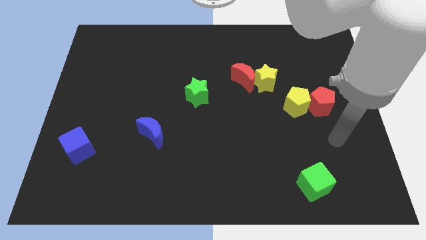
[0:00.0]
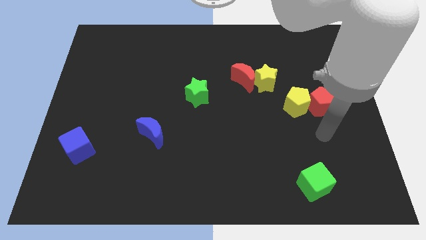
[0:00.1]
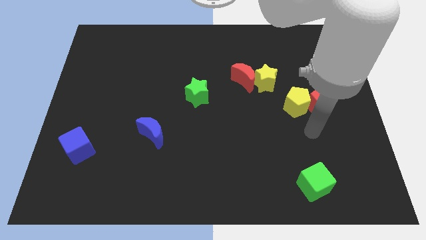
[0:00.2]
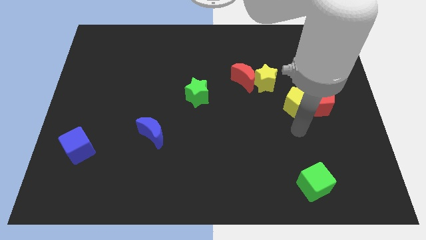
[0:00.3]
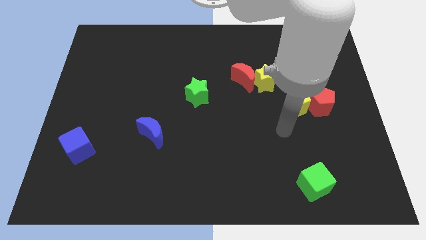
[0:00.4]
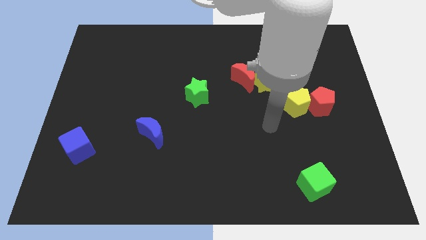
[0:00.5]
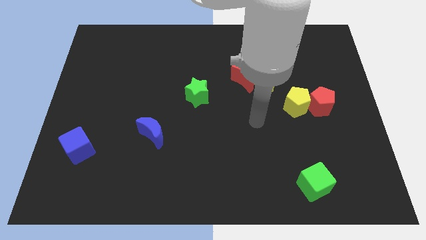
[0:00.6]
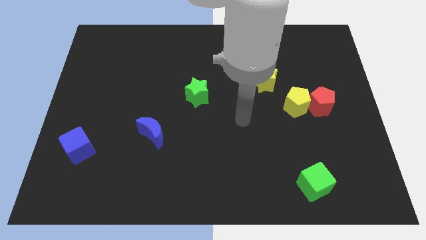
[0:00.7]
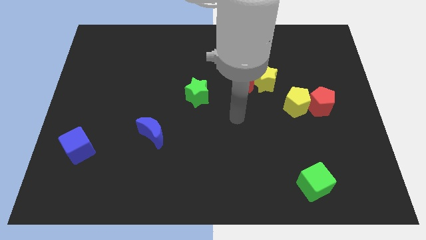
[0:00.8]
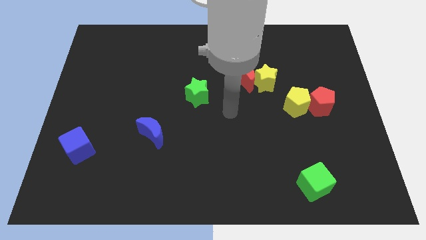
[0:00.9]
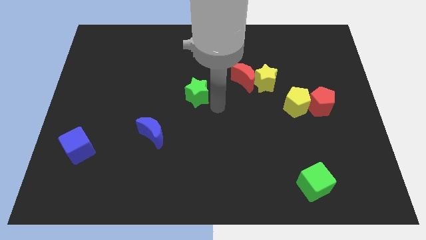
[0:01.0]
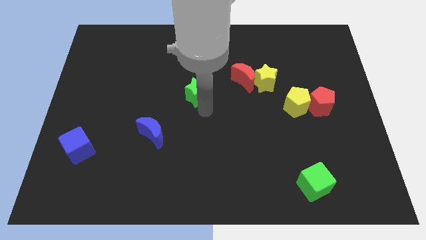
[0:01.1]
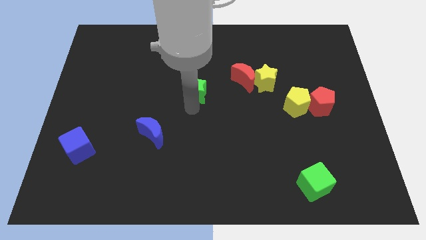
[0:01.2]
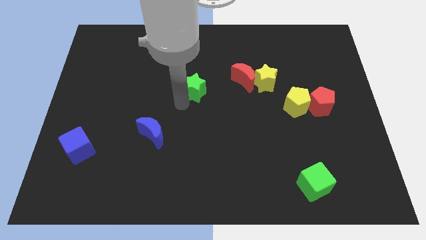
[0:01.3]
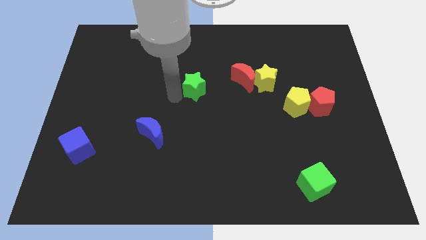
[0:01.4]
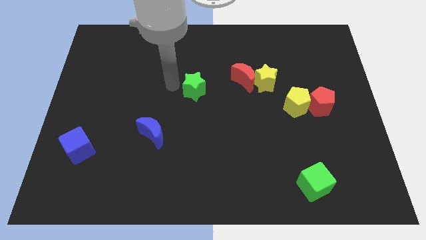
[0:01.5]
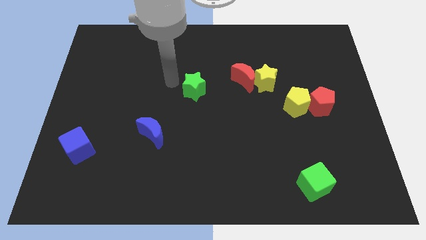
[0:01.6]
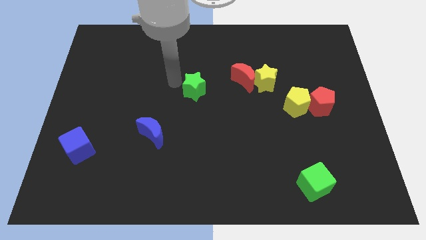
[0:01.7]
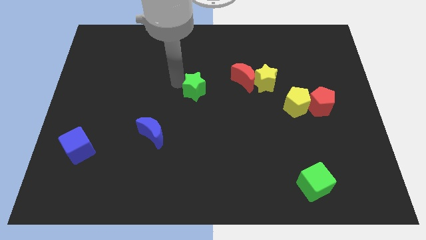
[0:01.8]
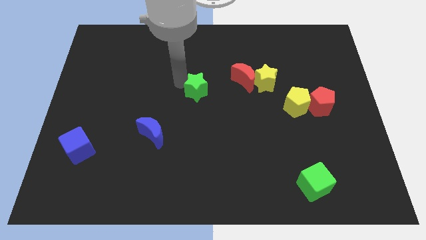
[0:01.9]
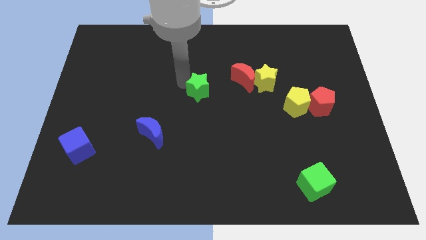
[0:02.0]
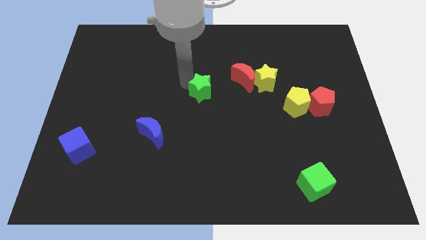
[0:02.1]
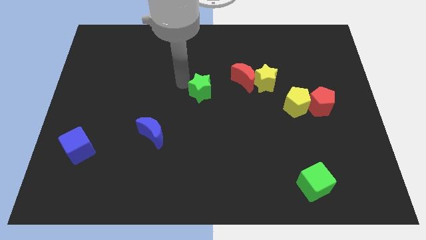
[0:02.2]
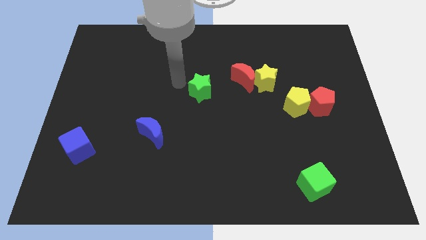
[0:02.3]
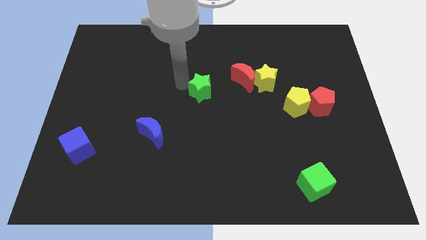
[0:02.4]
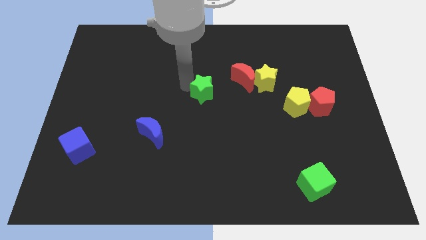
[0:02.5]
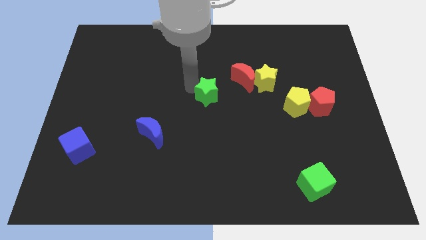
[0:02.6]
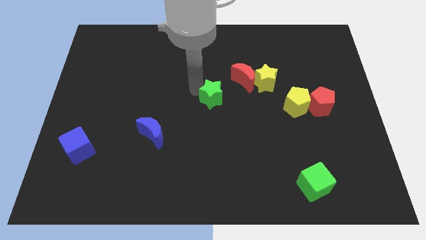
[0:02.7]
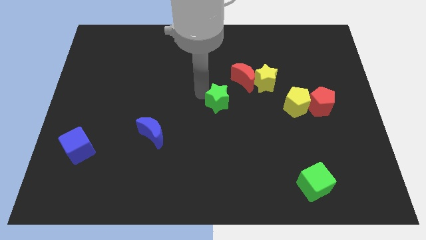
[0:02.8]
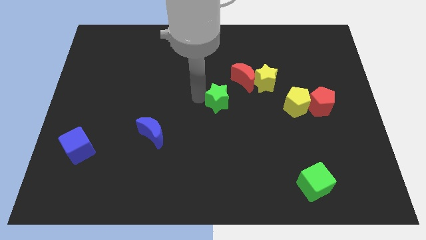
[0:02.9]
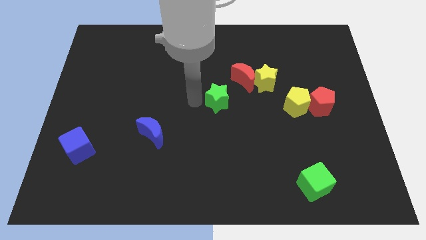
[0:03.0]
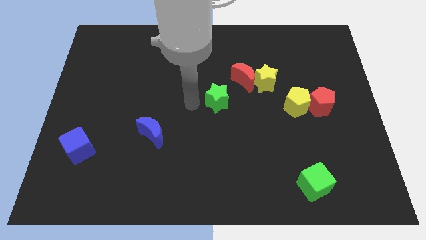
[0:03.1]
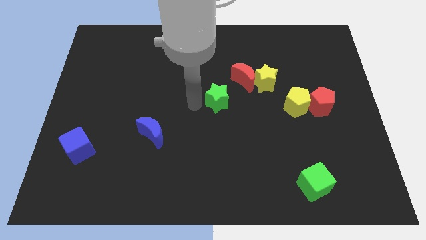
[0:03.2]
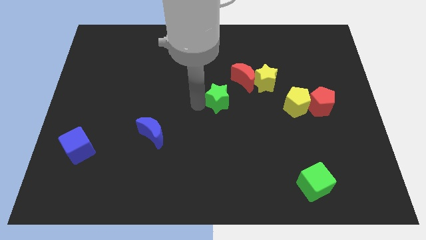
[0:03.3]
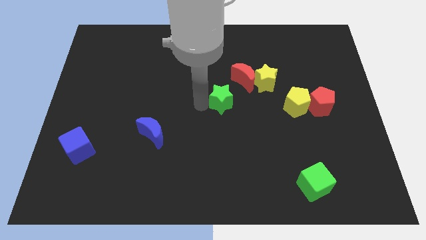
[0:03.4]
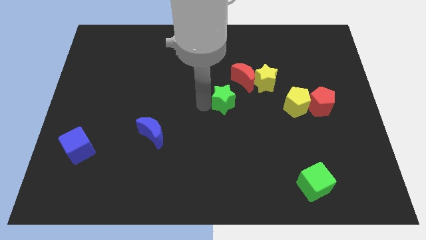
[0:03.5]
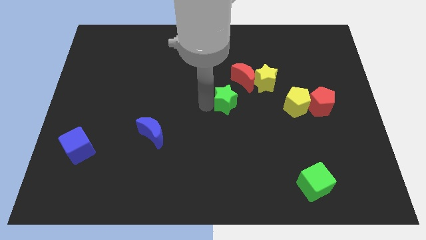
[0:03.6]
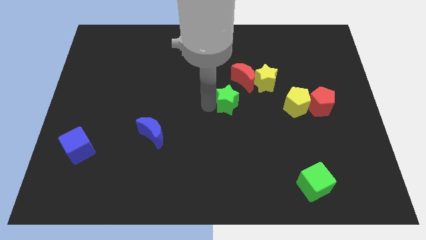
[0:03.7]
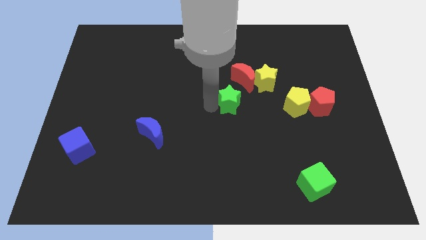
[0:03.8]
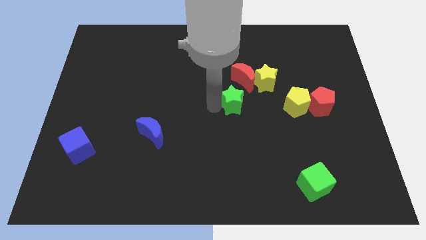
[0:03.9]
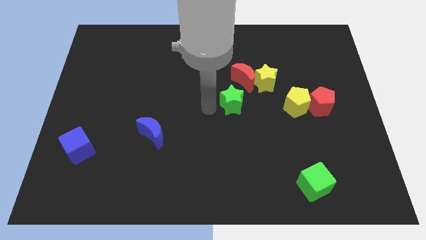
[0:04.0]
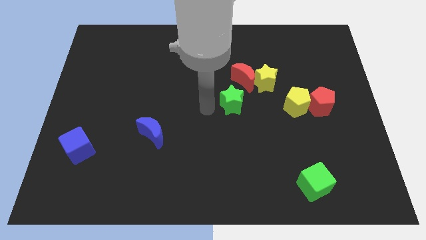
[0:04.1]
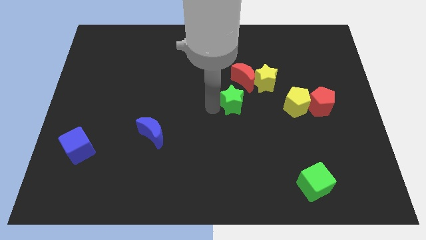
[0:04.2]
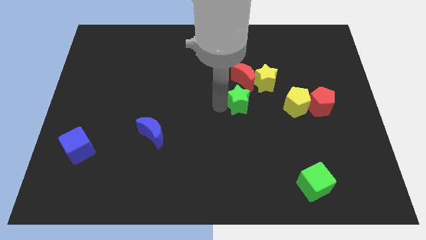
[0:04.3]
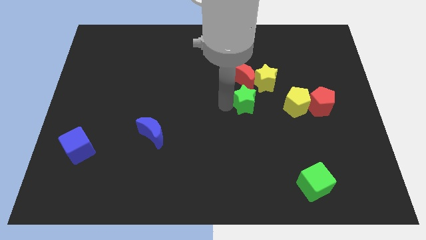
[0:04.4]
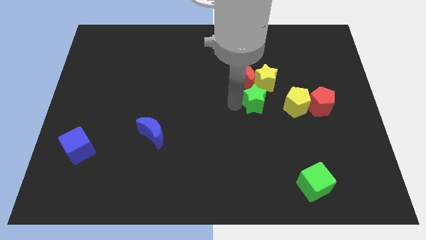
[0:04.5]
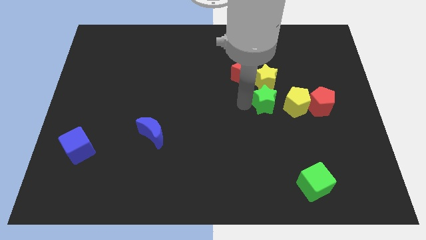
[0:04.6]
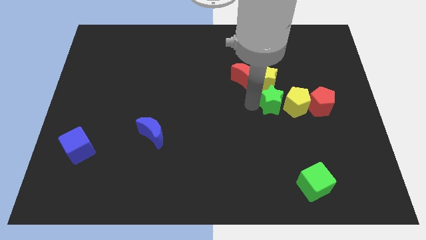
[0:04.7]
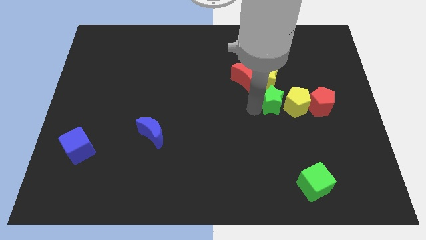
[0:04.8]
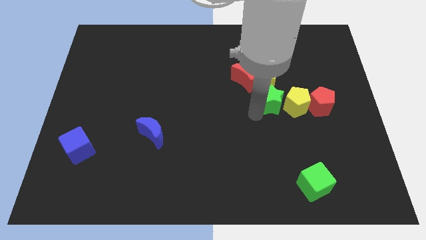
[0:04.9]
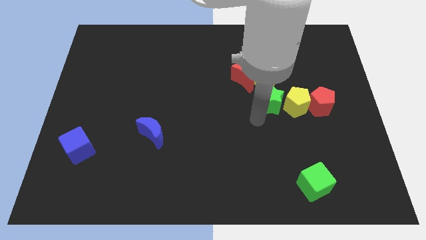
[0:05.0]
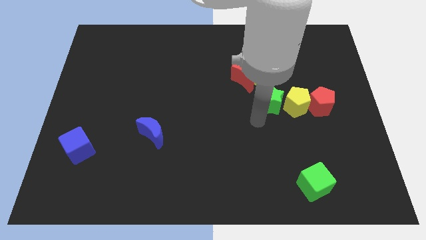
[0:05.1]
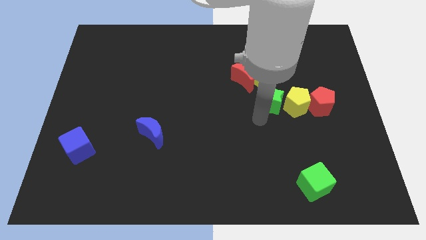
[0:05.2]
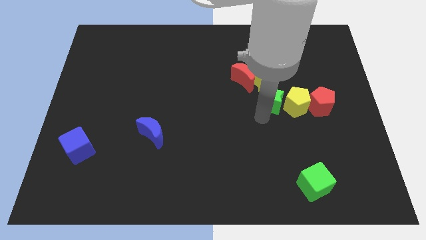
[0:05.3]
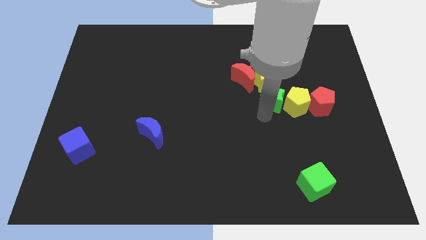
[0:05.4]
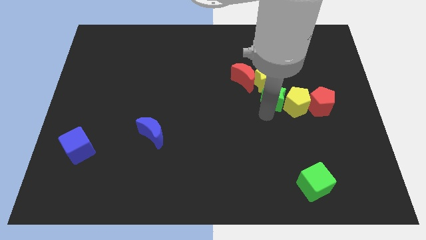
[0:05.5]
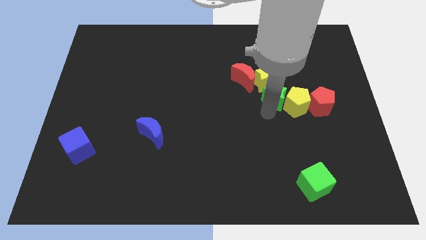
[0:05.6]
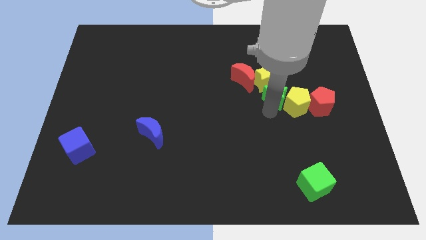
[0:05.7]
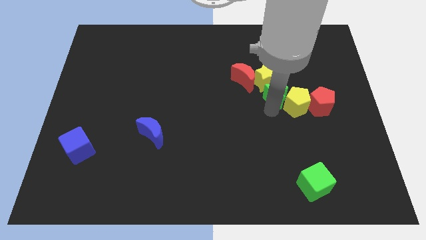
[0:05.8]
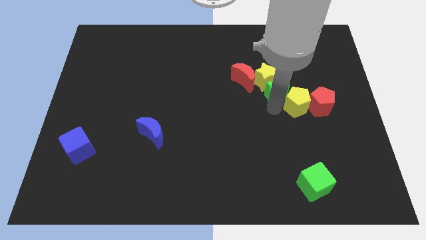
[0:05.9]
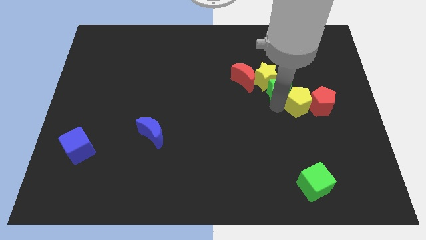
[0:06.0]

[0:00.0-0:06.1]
move the green star to the right

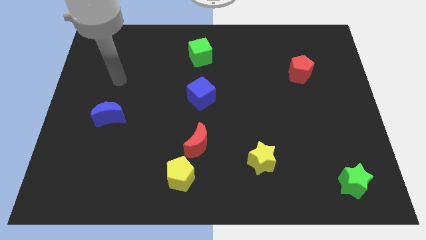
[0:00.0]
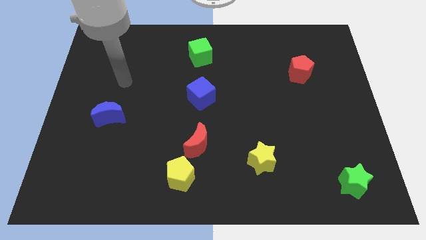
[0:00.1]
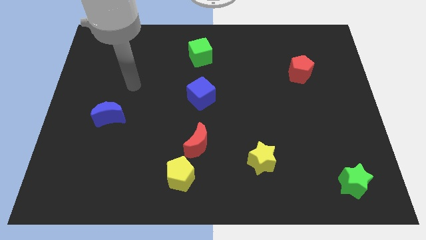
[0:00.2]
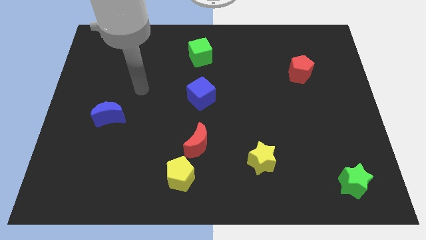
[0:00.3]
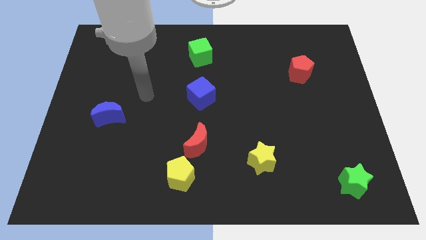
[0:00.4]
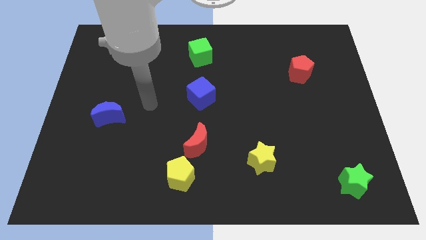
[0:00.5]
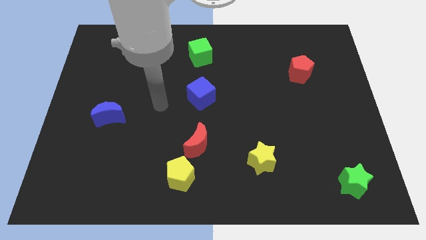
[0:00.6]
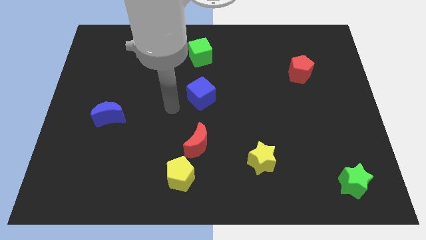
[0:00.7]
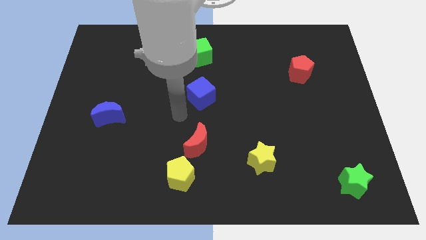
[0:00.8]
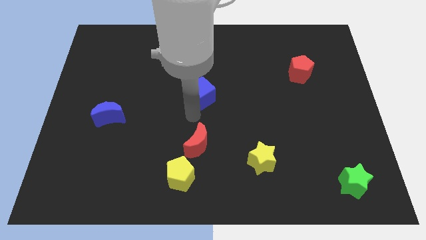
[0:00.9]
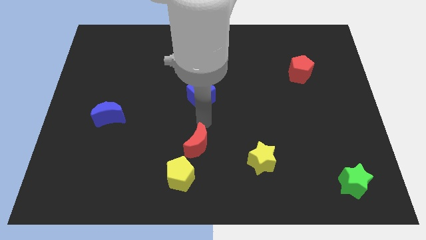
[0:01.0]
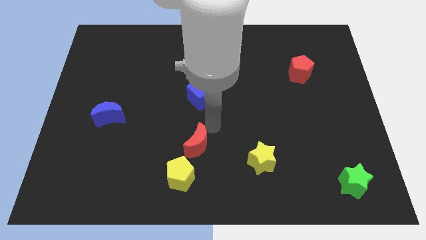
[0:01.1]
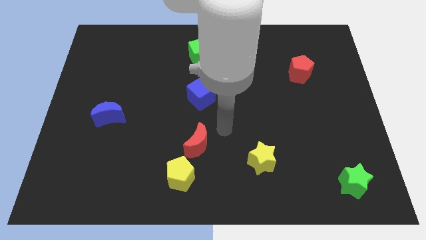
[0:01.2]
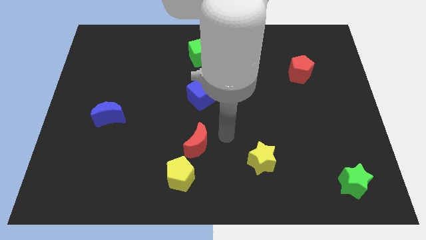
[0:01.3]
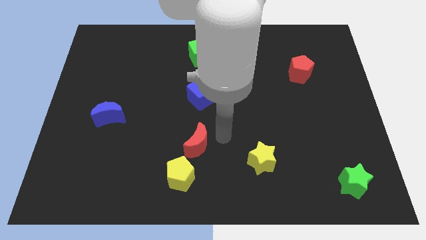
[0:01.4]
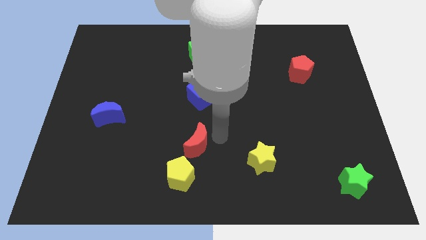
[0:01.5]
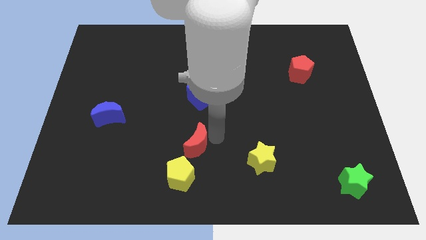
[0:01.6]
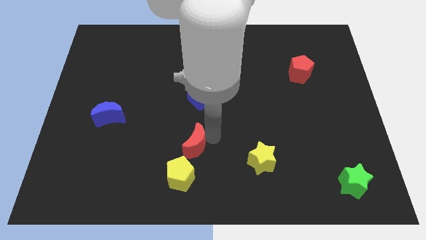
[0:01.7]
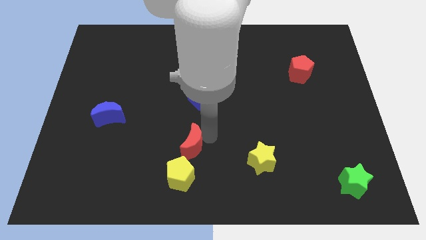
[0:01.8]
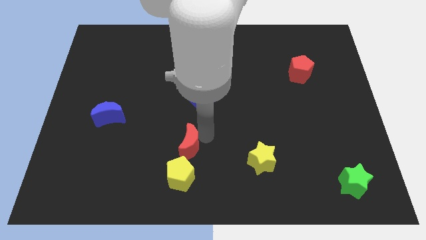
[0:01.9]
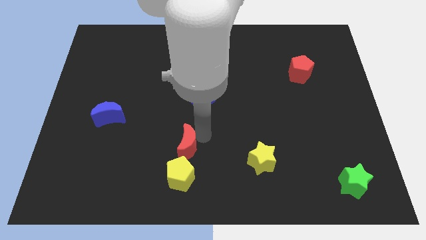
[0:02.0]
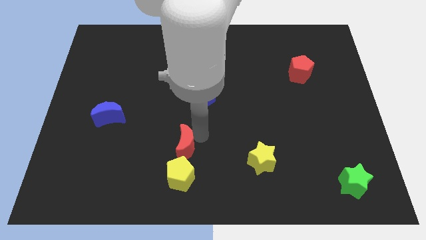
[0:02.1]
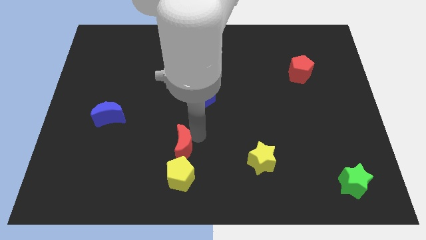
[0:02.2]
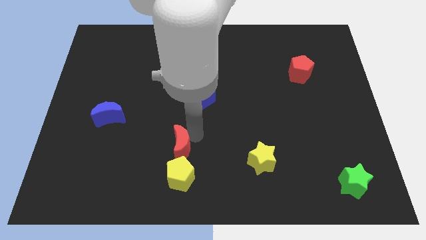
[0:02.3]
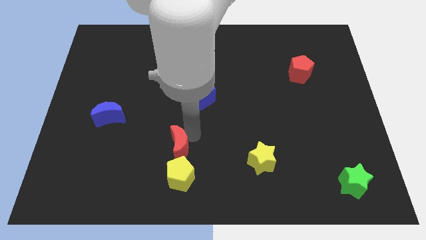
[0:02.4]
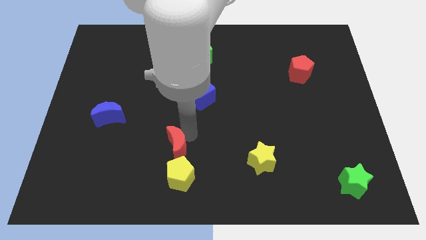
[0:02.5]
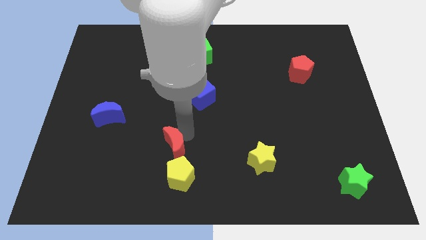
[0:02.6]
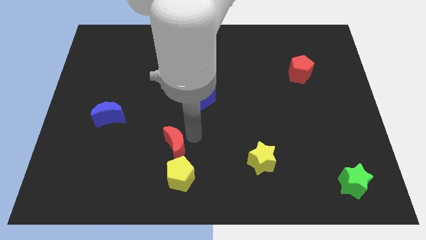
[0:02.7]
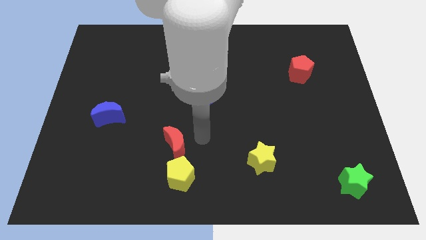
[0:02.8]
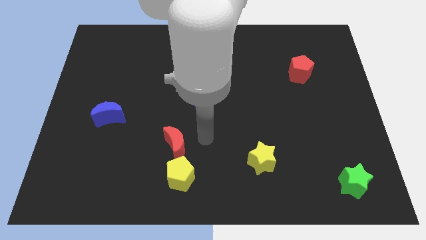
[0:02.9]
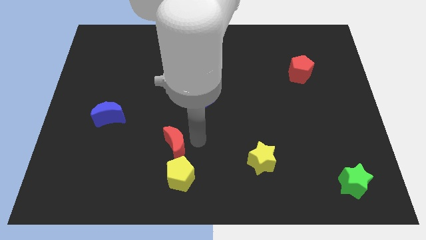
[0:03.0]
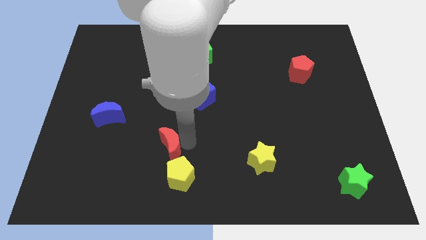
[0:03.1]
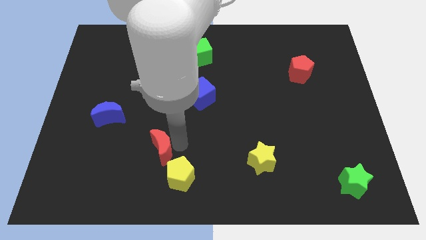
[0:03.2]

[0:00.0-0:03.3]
slightly slide the red moon to the left
